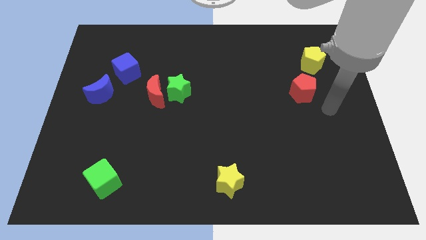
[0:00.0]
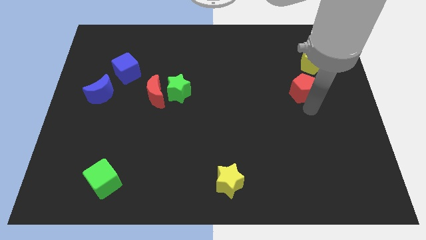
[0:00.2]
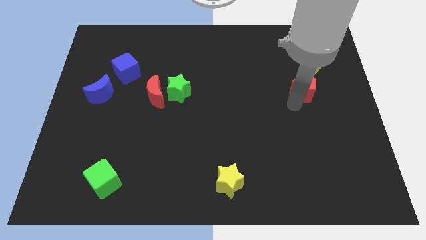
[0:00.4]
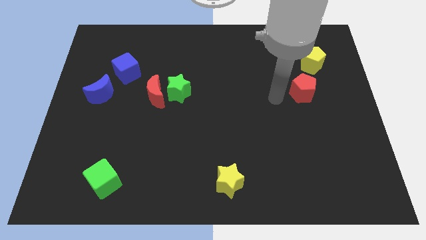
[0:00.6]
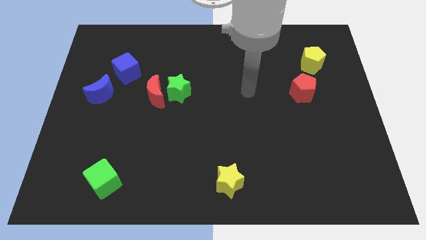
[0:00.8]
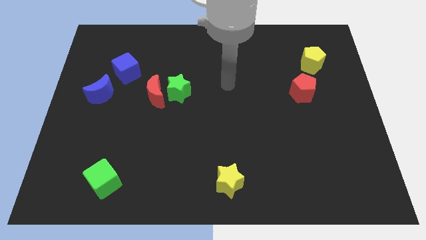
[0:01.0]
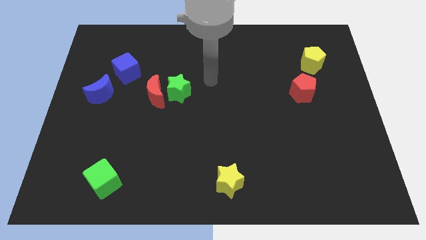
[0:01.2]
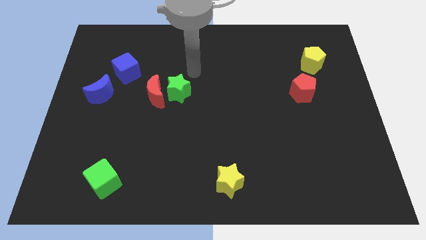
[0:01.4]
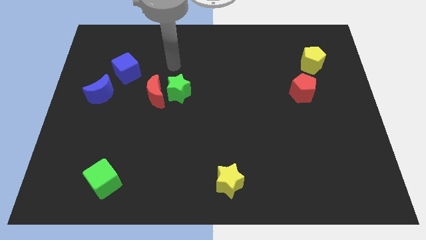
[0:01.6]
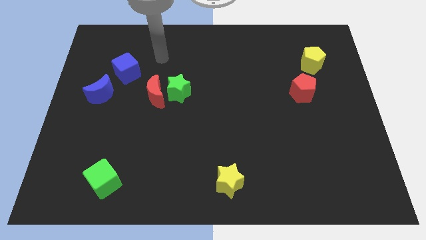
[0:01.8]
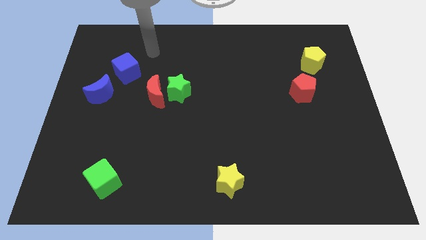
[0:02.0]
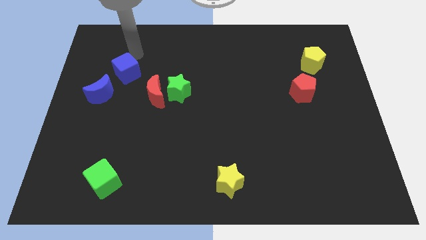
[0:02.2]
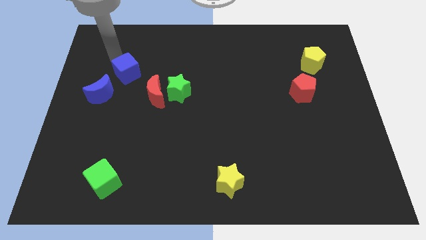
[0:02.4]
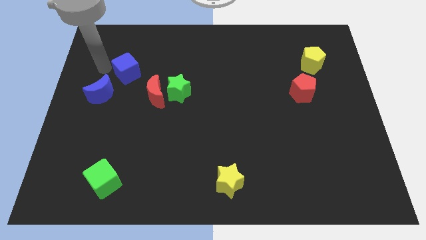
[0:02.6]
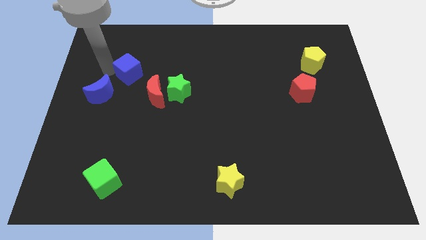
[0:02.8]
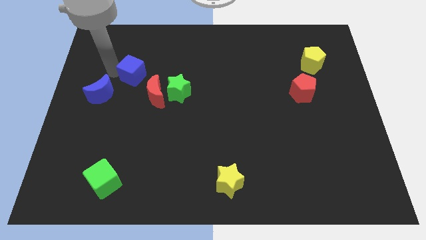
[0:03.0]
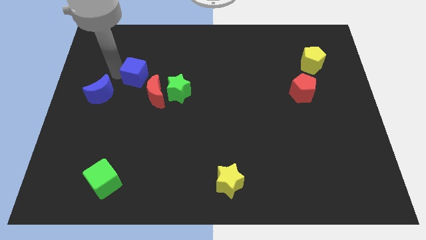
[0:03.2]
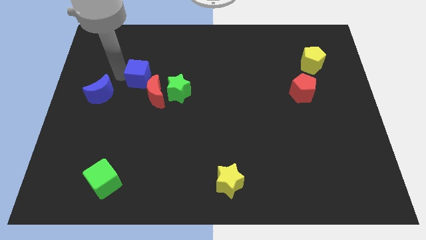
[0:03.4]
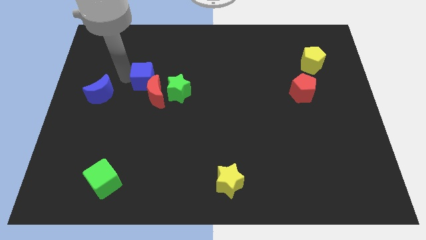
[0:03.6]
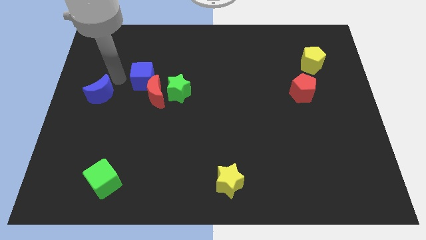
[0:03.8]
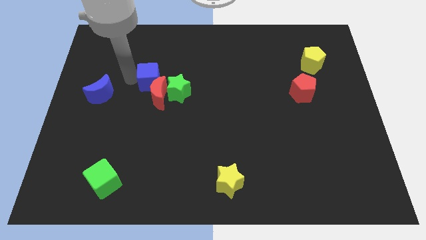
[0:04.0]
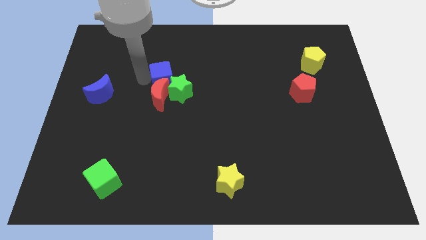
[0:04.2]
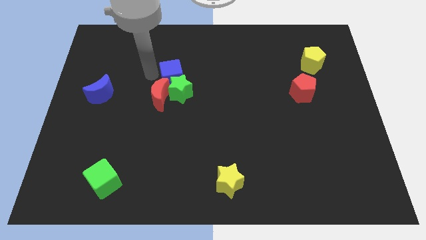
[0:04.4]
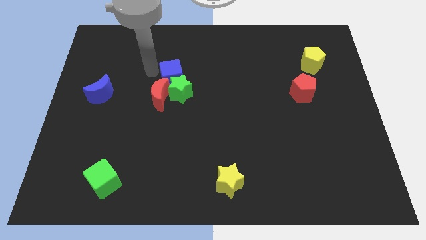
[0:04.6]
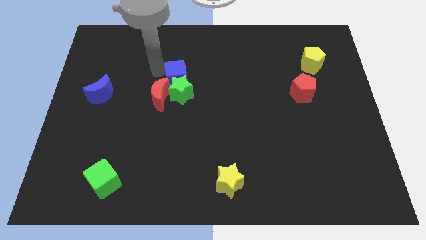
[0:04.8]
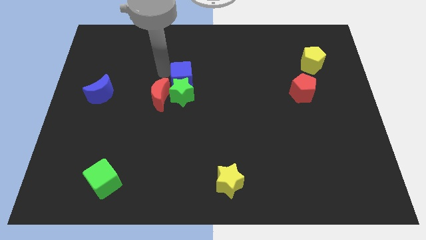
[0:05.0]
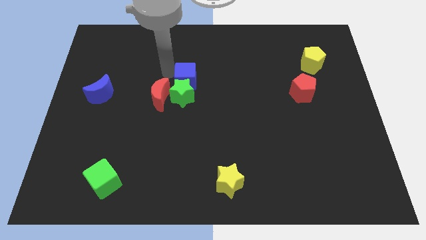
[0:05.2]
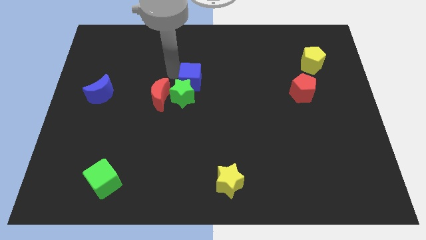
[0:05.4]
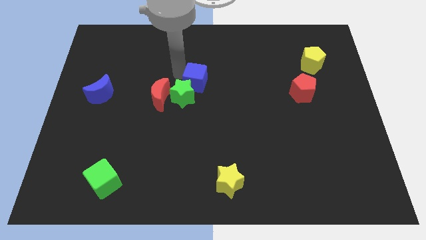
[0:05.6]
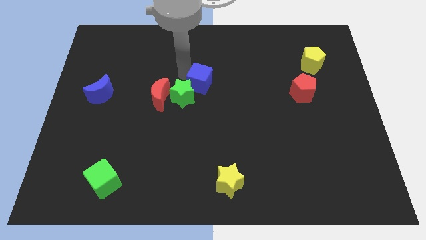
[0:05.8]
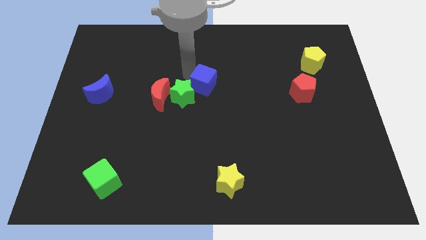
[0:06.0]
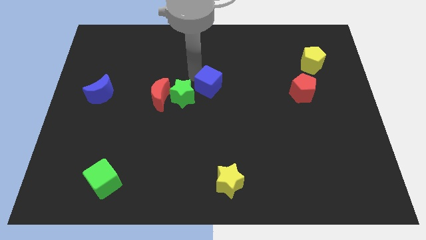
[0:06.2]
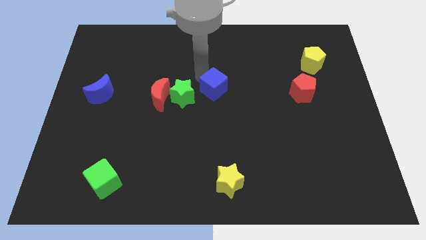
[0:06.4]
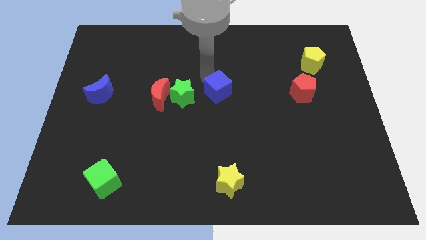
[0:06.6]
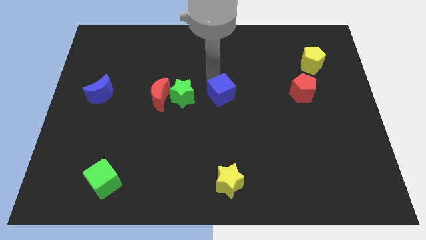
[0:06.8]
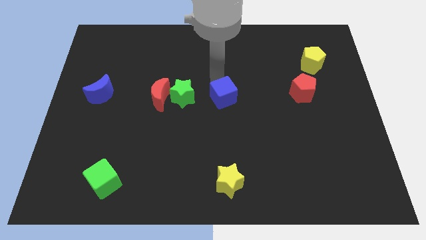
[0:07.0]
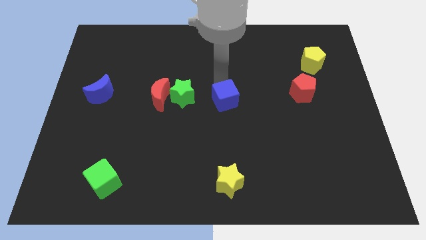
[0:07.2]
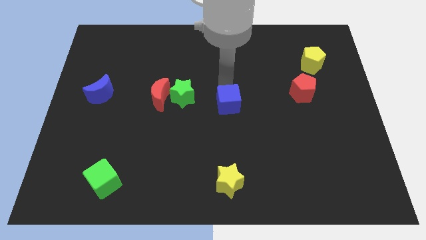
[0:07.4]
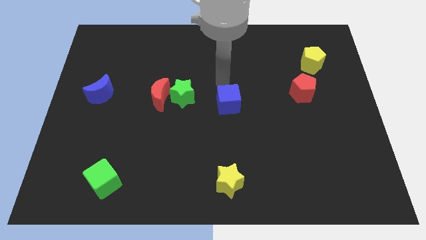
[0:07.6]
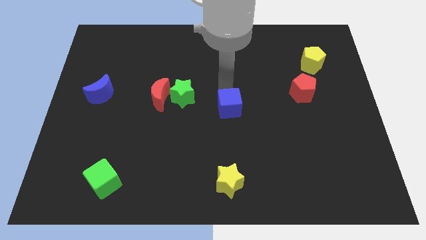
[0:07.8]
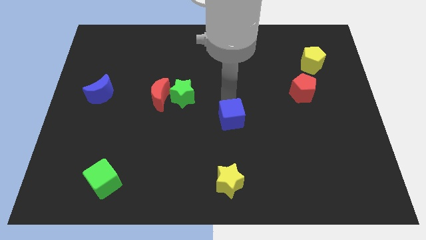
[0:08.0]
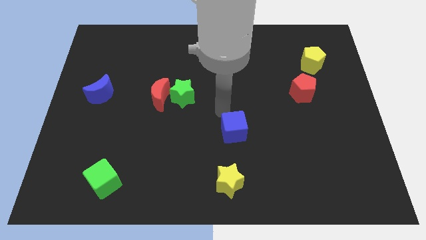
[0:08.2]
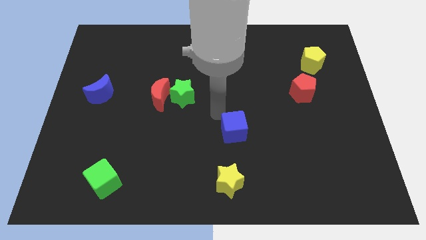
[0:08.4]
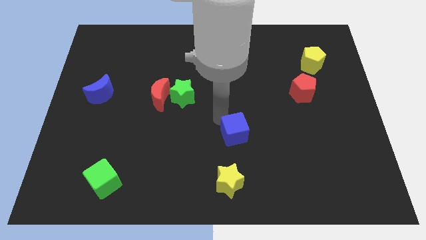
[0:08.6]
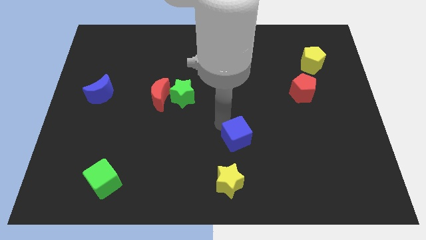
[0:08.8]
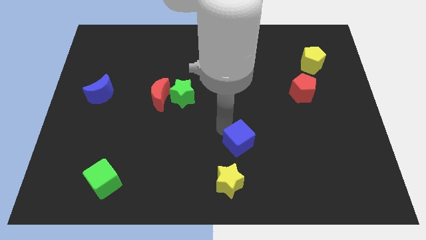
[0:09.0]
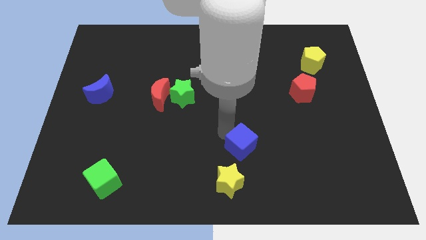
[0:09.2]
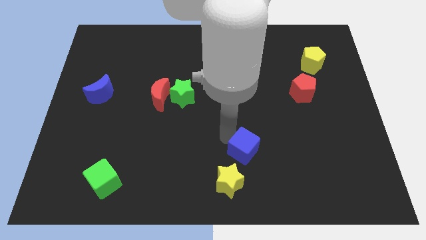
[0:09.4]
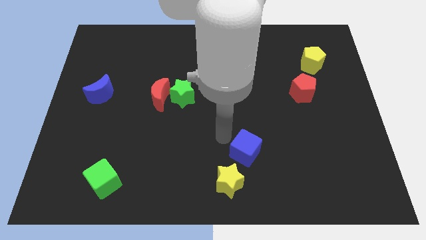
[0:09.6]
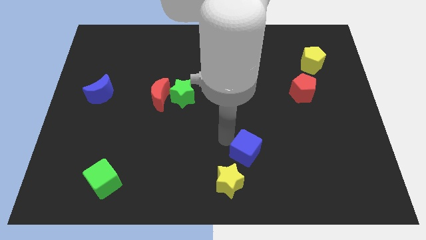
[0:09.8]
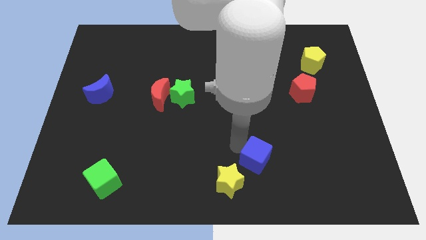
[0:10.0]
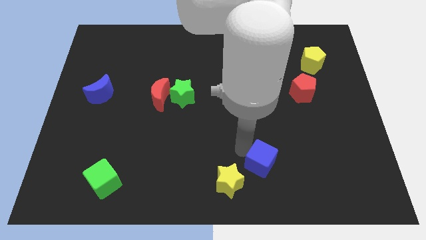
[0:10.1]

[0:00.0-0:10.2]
put the blue cube to the right of the yellow star

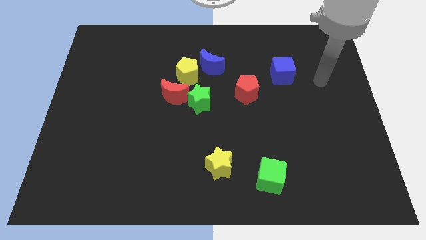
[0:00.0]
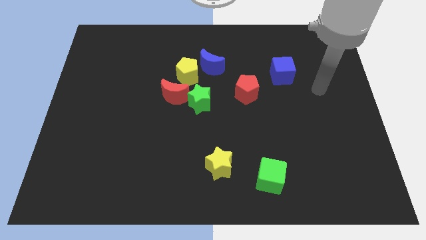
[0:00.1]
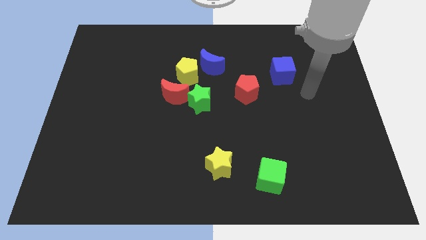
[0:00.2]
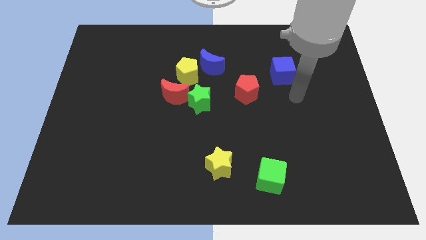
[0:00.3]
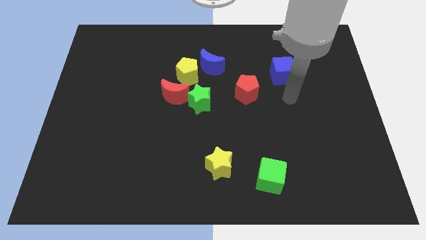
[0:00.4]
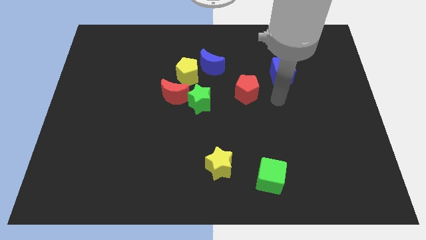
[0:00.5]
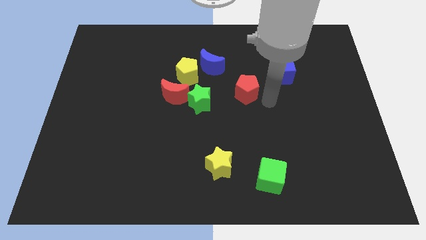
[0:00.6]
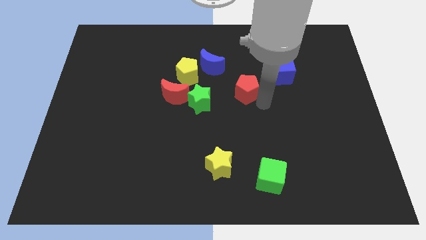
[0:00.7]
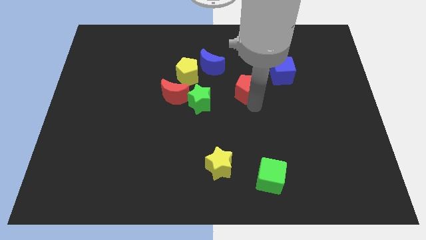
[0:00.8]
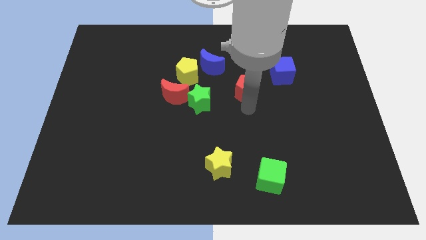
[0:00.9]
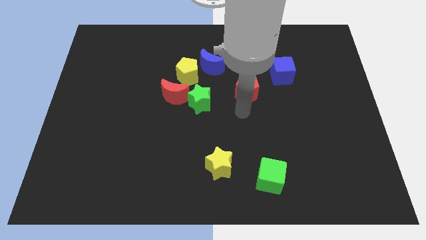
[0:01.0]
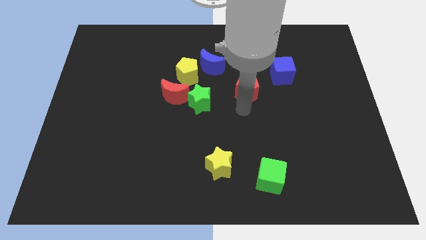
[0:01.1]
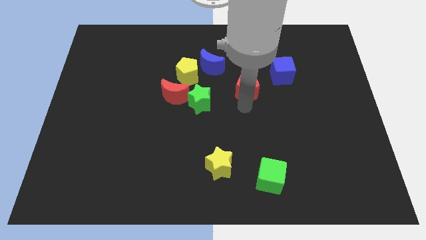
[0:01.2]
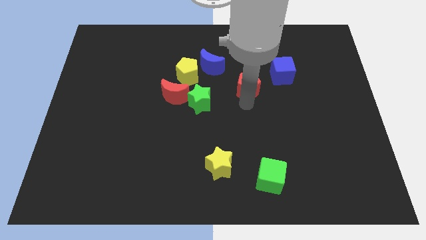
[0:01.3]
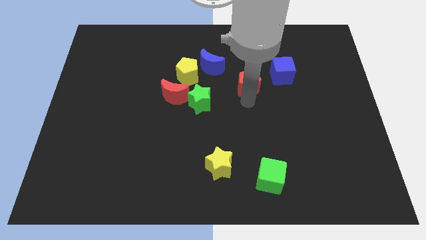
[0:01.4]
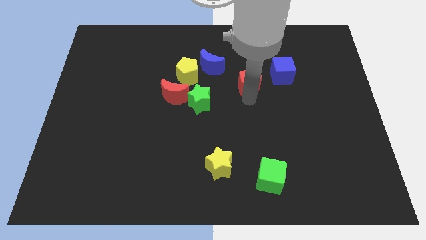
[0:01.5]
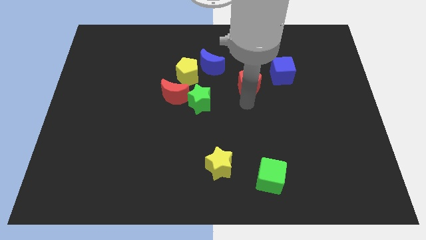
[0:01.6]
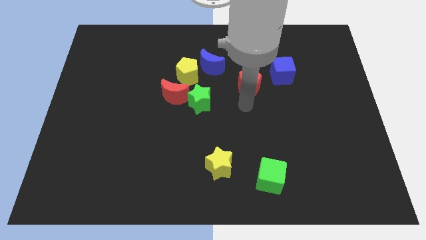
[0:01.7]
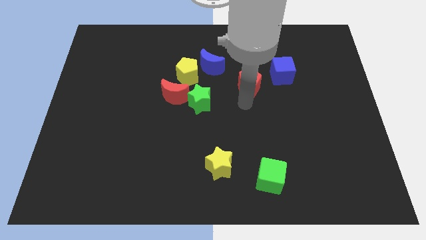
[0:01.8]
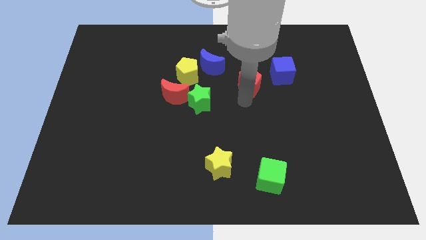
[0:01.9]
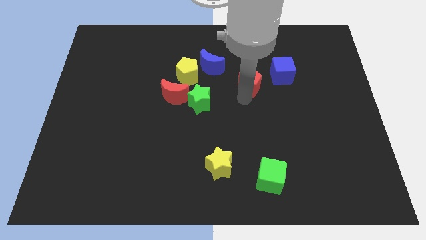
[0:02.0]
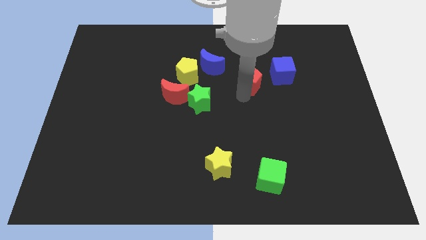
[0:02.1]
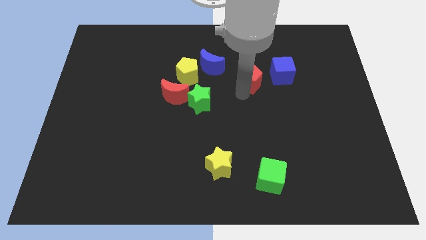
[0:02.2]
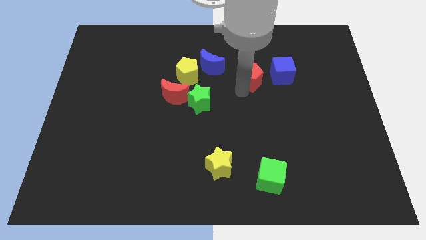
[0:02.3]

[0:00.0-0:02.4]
put the red pentagon just right of the blue moon
